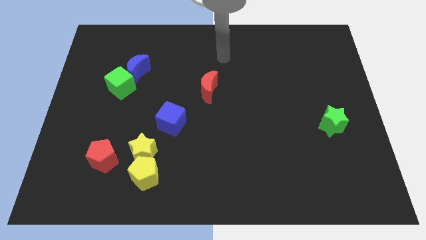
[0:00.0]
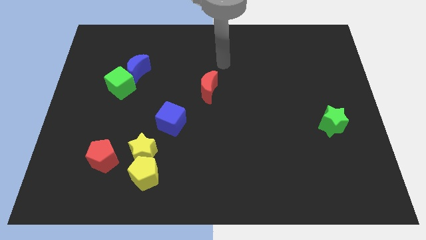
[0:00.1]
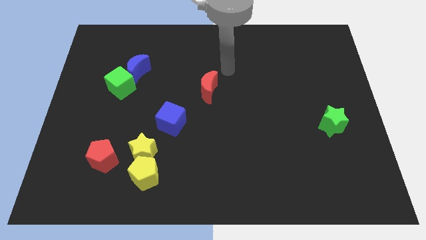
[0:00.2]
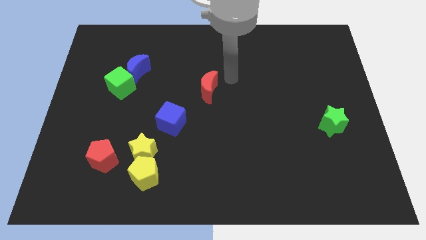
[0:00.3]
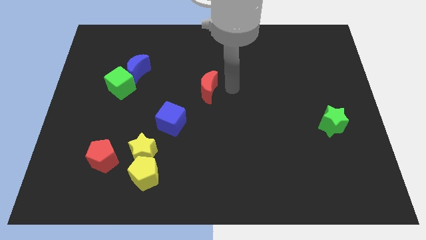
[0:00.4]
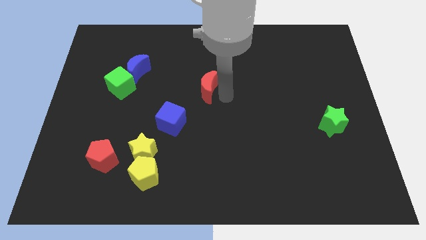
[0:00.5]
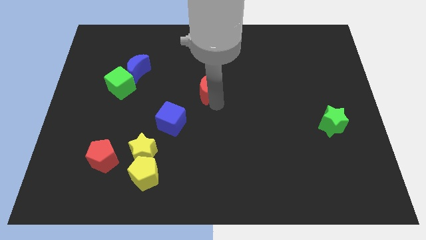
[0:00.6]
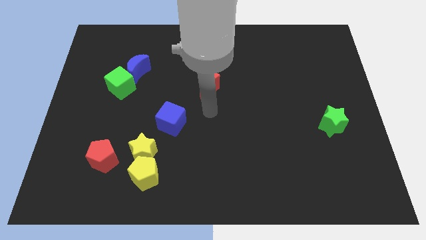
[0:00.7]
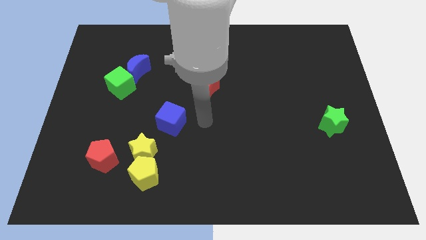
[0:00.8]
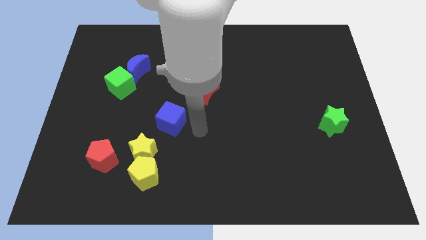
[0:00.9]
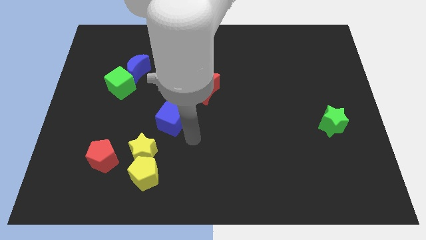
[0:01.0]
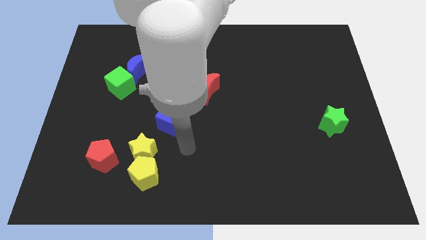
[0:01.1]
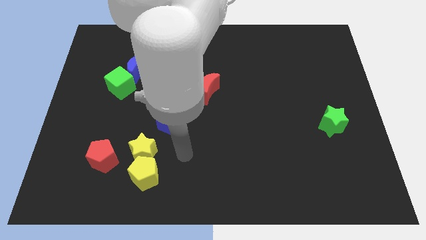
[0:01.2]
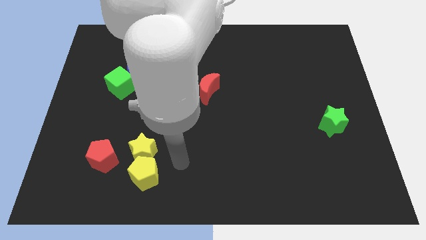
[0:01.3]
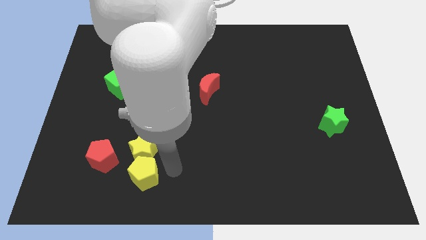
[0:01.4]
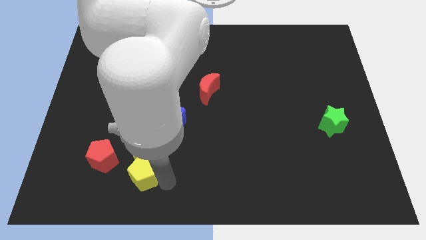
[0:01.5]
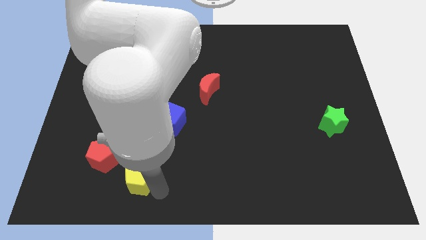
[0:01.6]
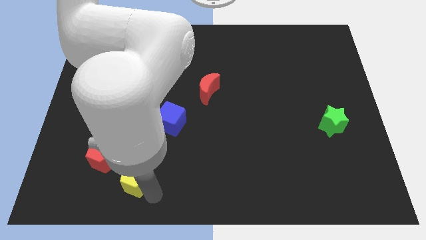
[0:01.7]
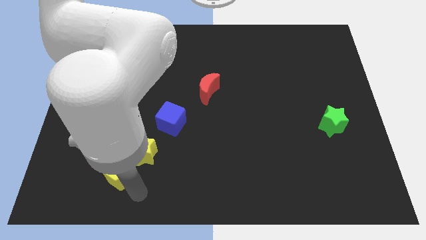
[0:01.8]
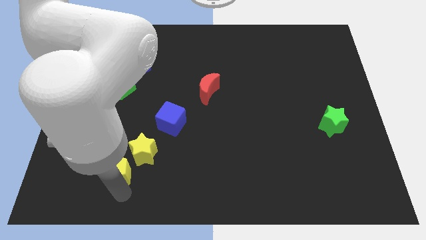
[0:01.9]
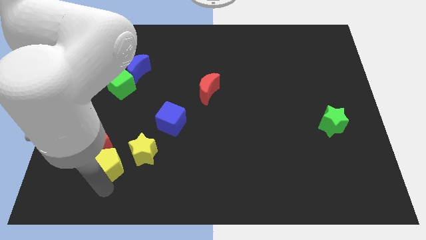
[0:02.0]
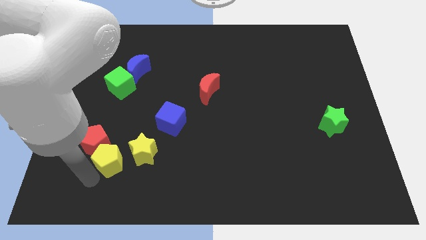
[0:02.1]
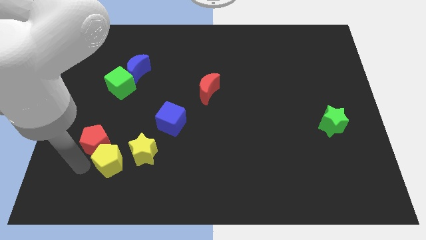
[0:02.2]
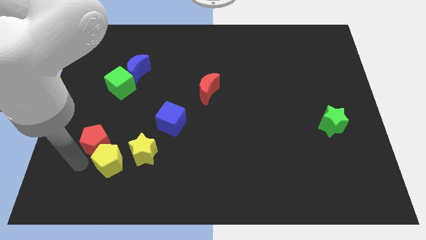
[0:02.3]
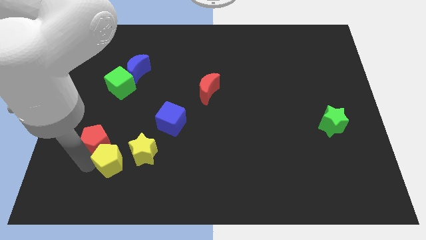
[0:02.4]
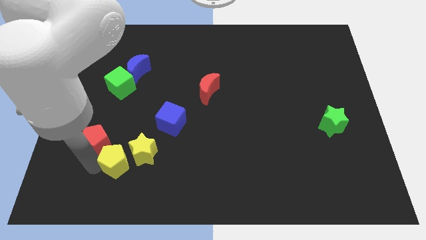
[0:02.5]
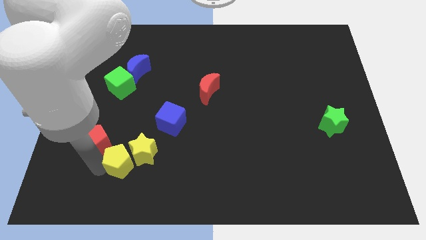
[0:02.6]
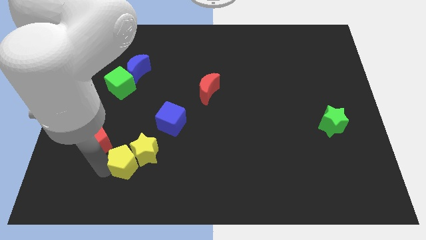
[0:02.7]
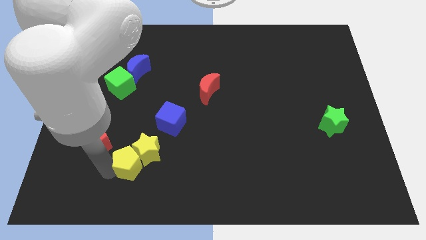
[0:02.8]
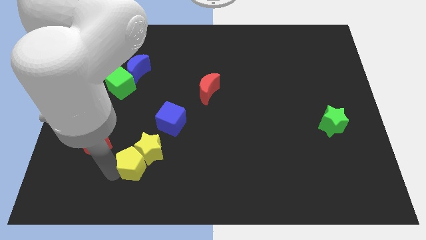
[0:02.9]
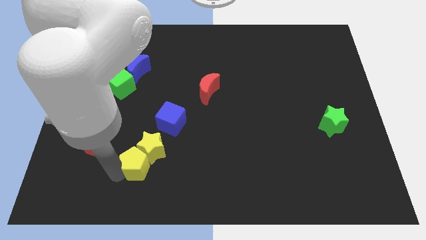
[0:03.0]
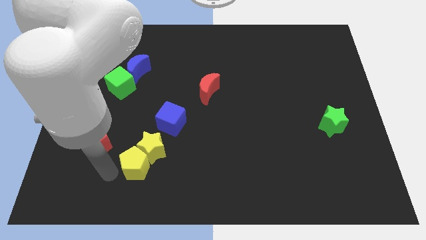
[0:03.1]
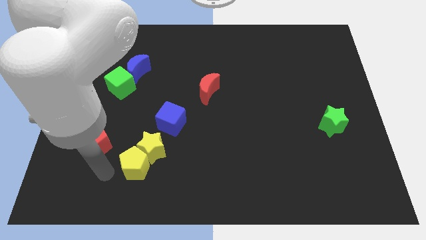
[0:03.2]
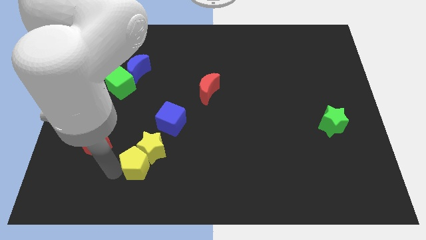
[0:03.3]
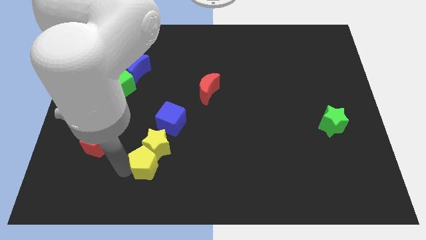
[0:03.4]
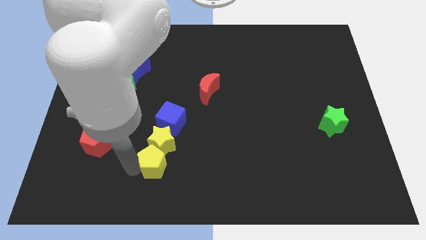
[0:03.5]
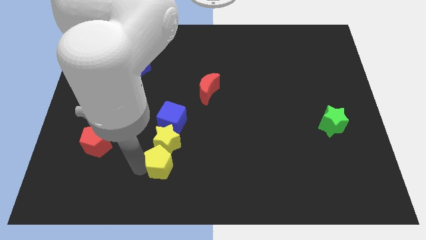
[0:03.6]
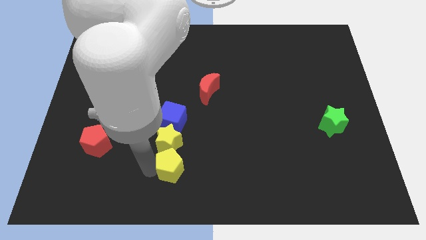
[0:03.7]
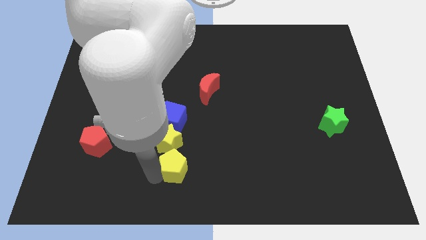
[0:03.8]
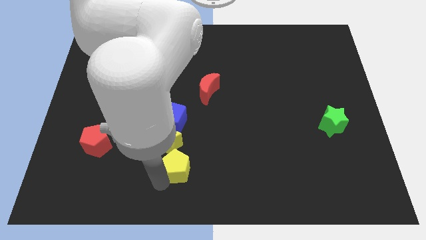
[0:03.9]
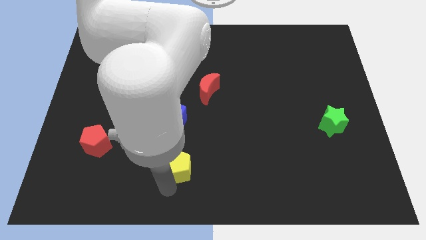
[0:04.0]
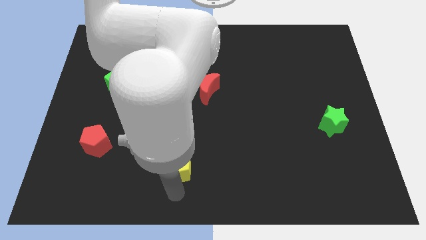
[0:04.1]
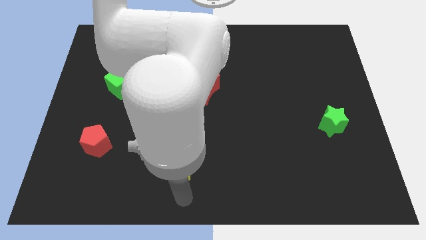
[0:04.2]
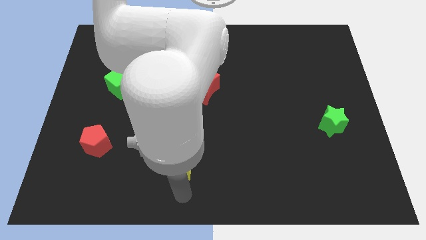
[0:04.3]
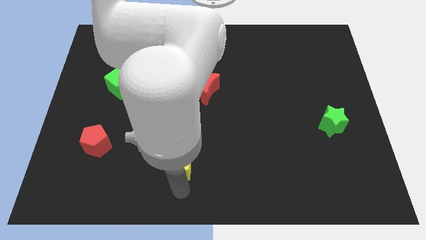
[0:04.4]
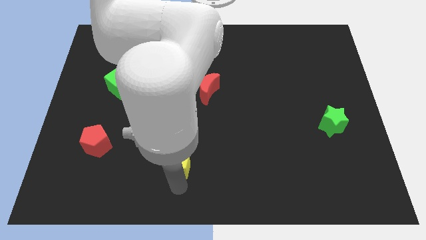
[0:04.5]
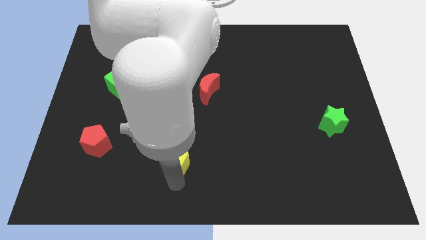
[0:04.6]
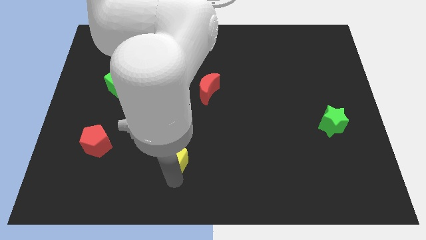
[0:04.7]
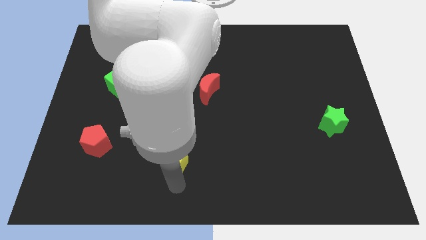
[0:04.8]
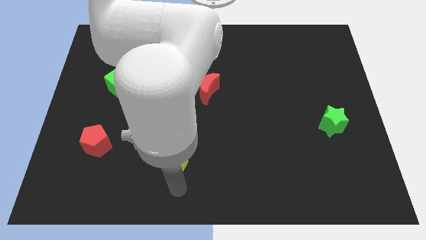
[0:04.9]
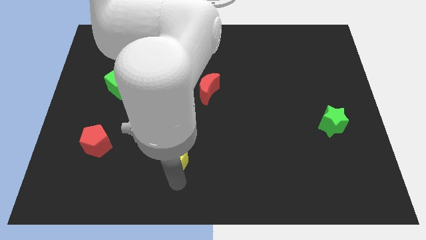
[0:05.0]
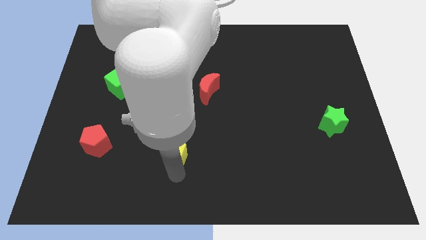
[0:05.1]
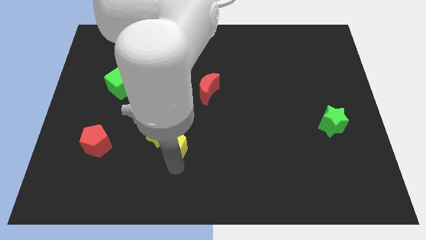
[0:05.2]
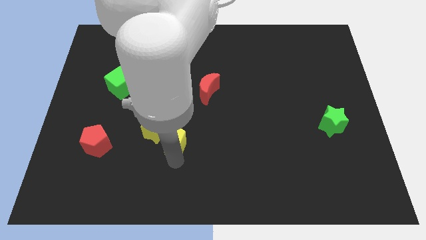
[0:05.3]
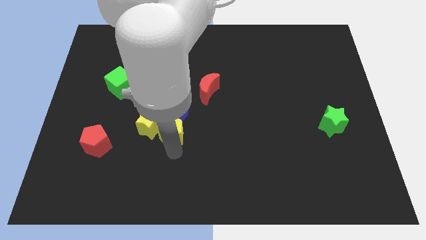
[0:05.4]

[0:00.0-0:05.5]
slide the yellow pentagon close to the blue cube

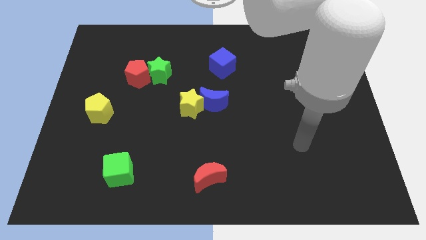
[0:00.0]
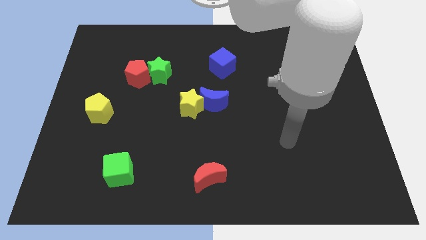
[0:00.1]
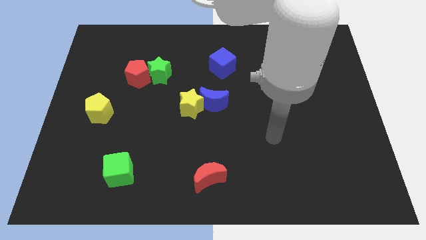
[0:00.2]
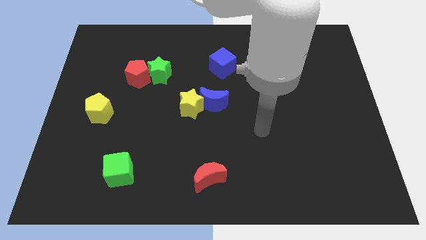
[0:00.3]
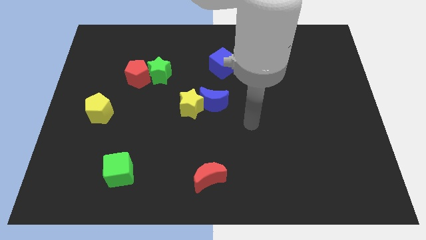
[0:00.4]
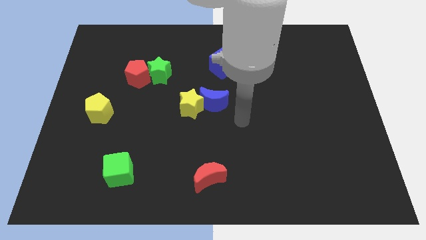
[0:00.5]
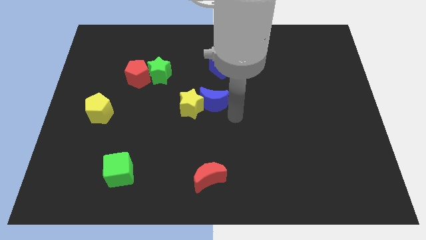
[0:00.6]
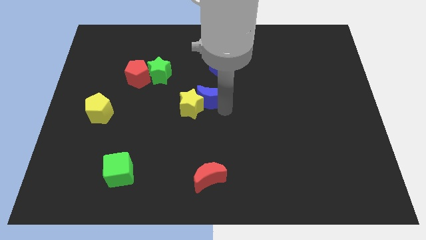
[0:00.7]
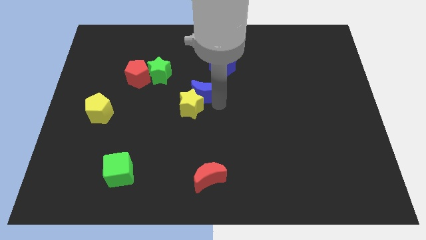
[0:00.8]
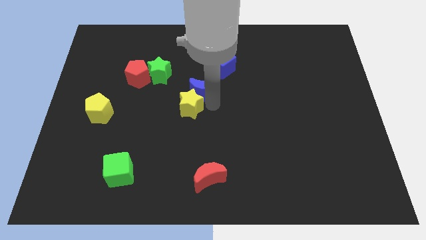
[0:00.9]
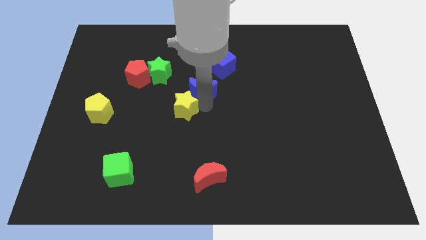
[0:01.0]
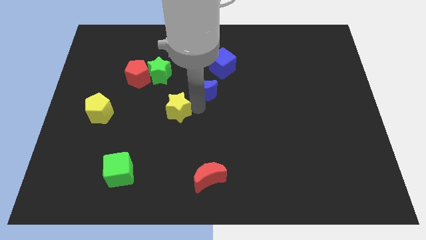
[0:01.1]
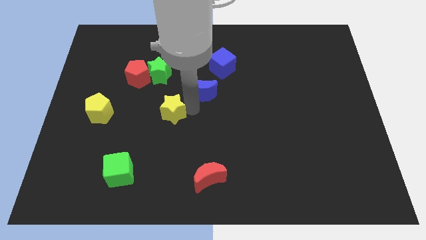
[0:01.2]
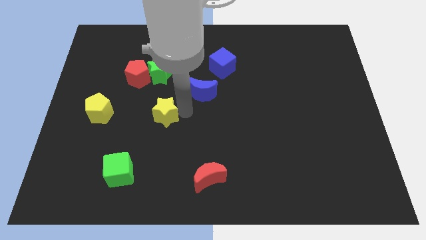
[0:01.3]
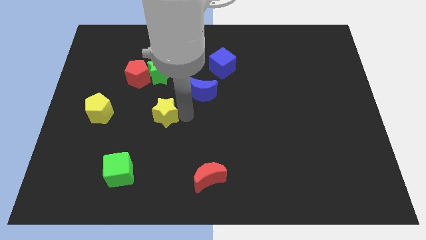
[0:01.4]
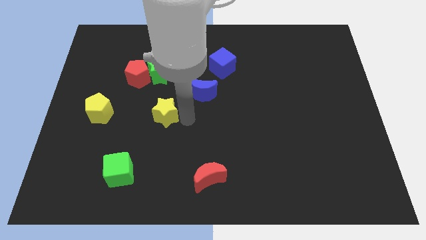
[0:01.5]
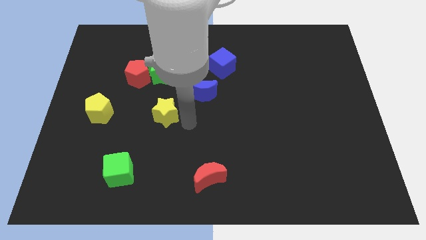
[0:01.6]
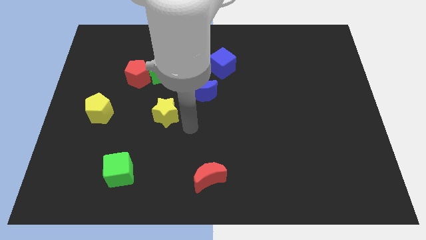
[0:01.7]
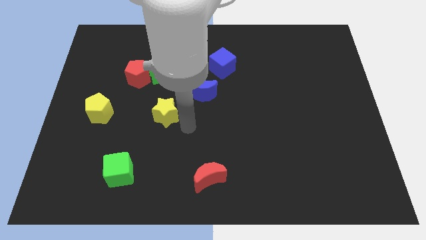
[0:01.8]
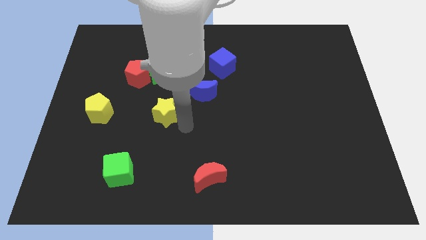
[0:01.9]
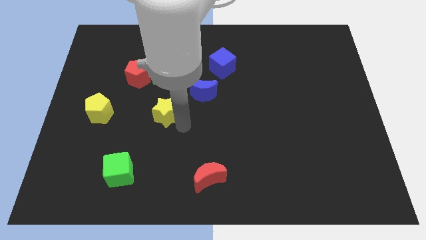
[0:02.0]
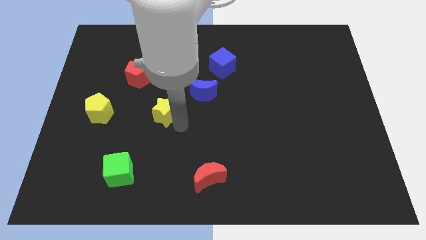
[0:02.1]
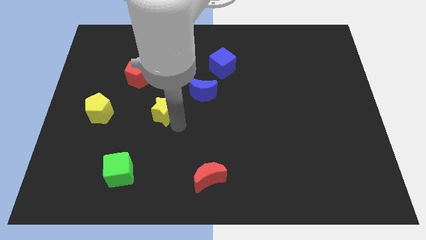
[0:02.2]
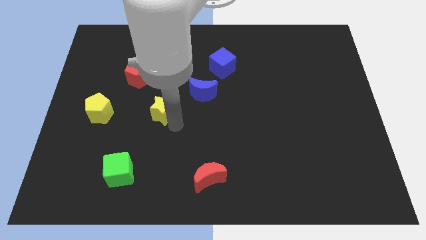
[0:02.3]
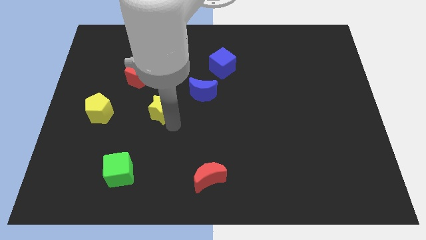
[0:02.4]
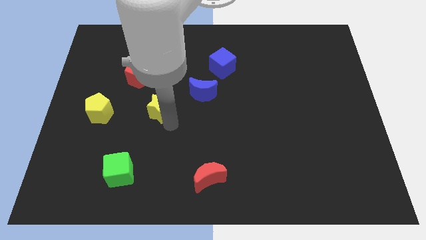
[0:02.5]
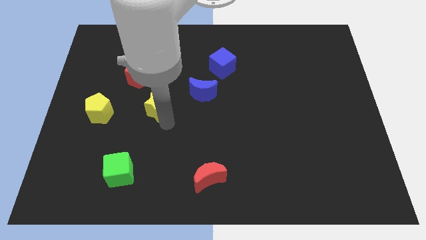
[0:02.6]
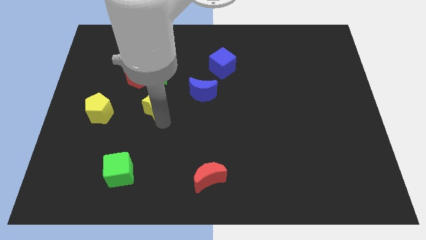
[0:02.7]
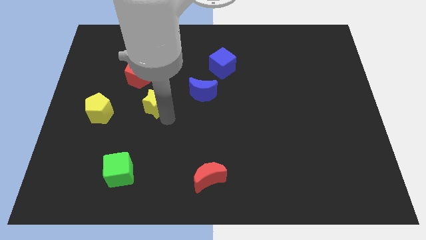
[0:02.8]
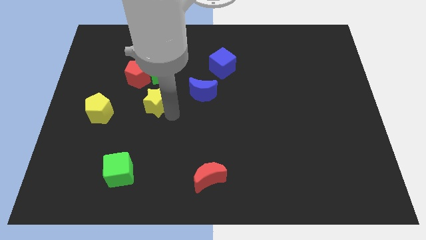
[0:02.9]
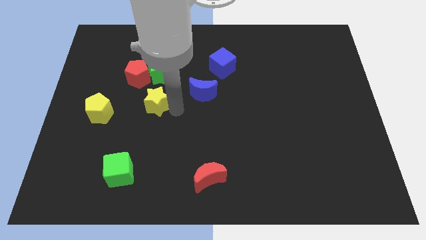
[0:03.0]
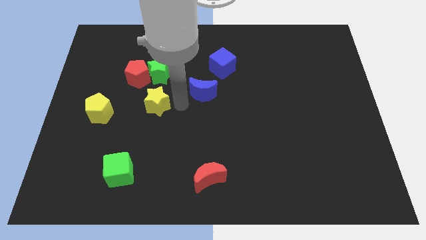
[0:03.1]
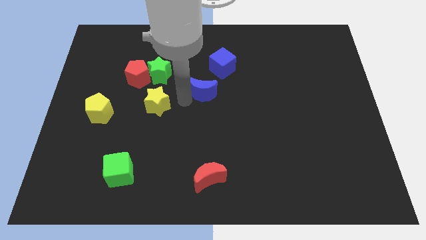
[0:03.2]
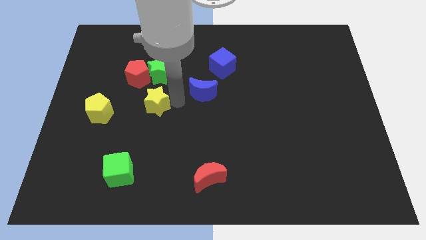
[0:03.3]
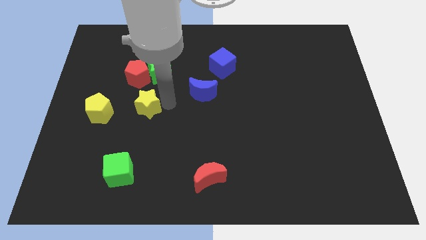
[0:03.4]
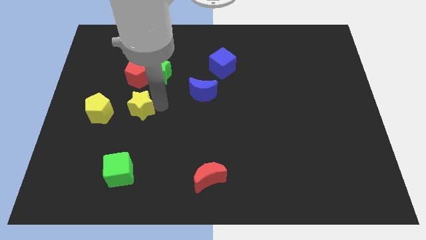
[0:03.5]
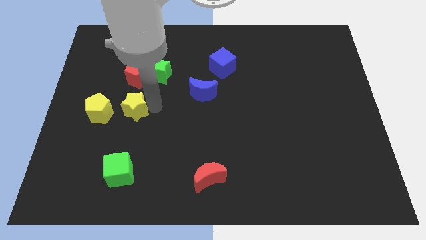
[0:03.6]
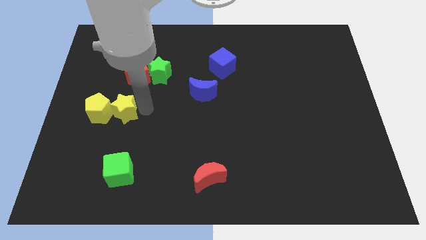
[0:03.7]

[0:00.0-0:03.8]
push the yellow star towards the yellow pentagon
